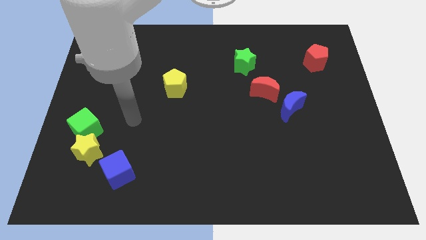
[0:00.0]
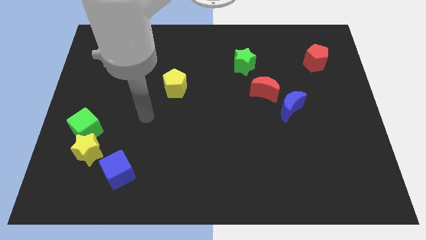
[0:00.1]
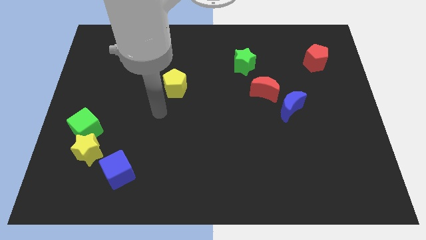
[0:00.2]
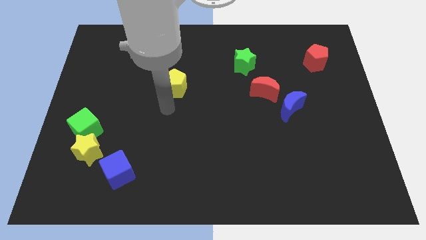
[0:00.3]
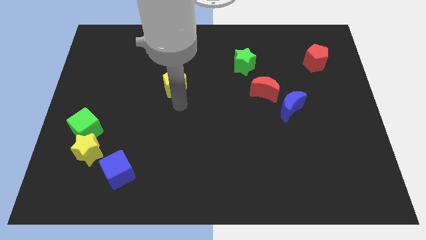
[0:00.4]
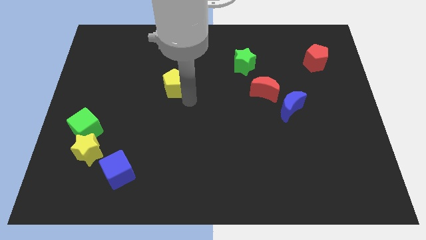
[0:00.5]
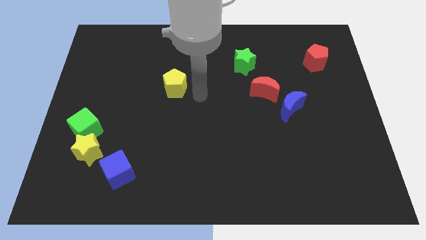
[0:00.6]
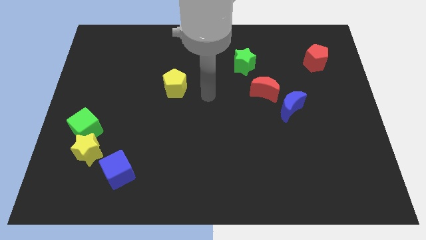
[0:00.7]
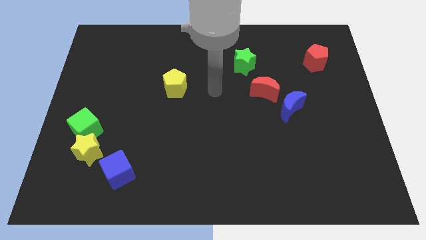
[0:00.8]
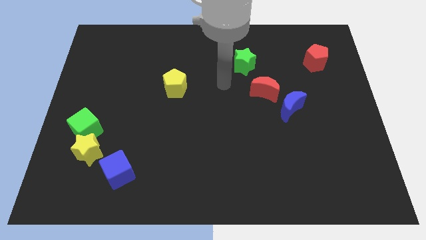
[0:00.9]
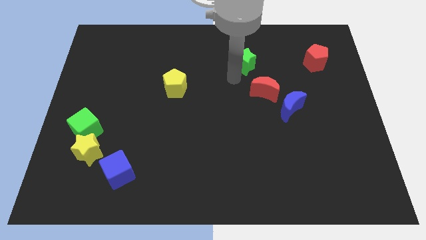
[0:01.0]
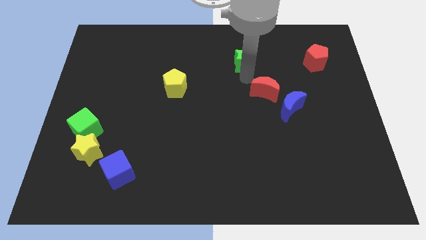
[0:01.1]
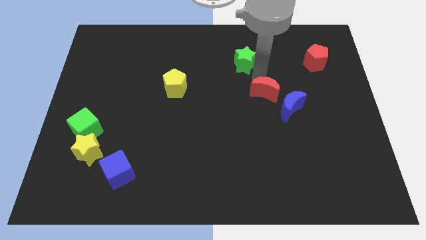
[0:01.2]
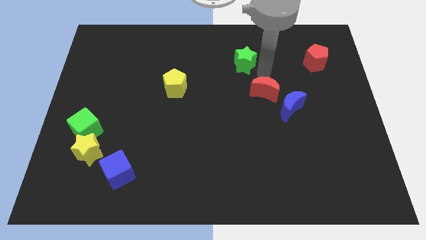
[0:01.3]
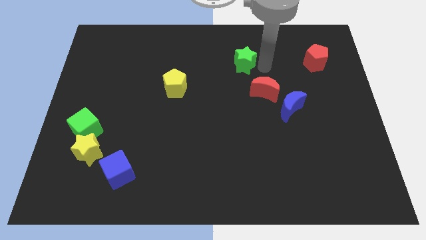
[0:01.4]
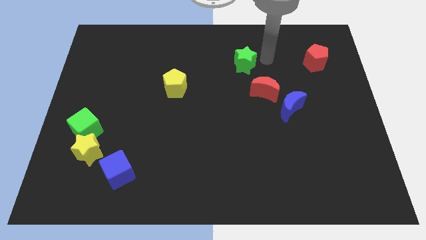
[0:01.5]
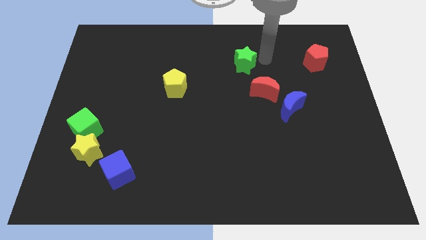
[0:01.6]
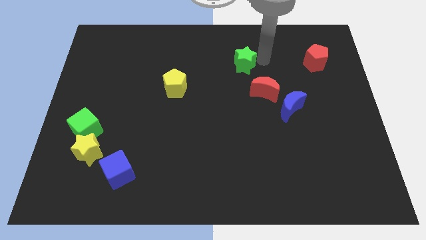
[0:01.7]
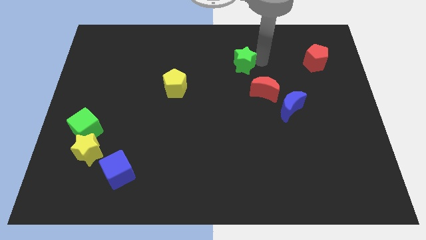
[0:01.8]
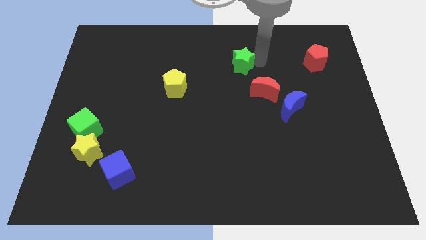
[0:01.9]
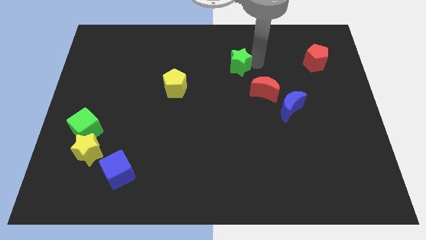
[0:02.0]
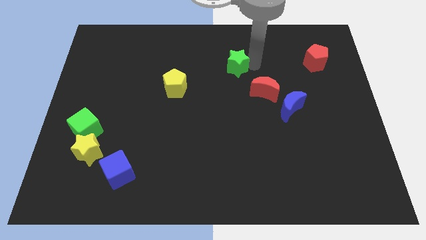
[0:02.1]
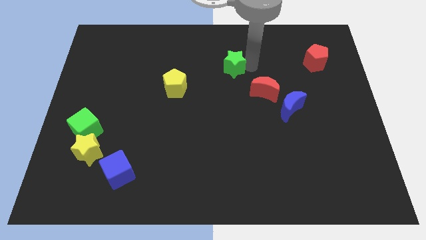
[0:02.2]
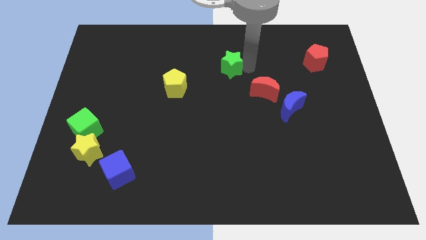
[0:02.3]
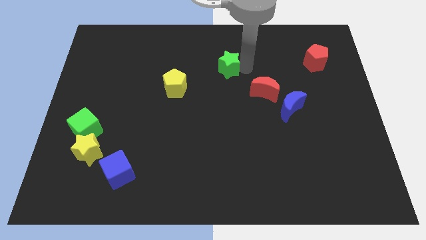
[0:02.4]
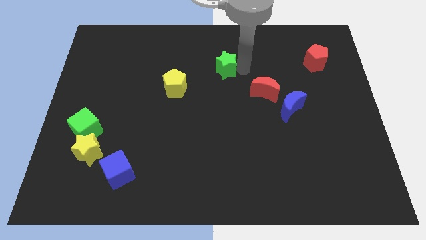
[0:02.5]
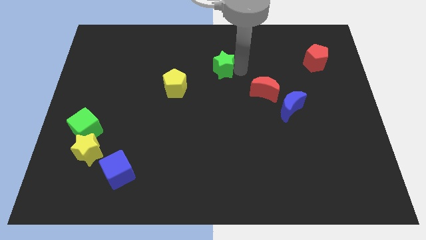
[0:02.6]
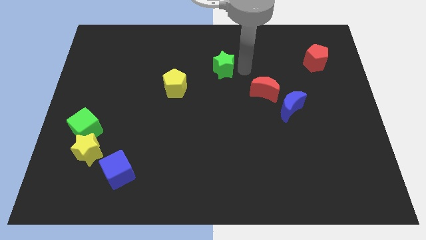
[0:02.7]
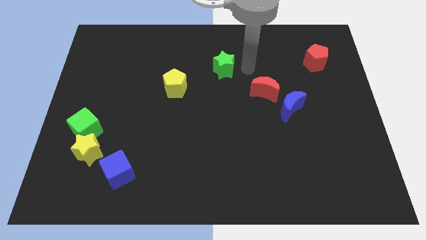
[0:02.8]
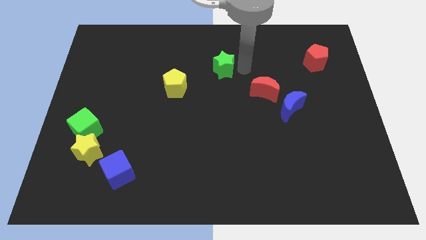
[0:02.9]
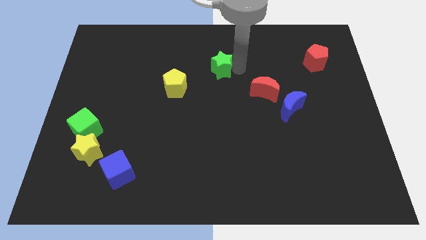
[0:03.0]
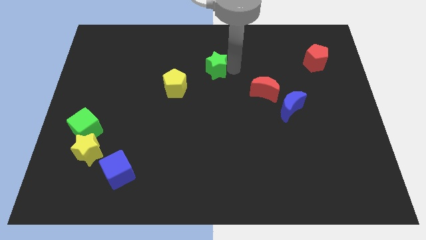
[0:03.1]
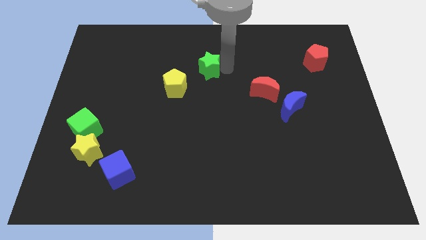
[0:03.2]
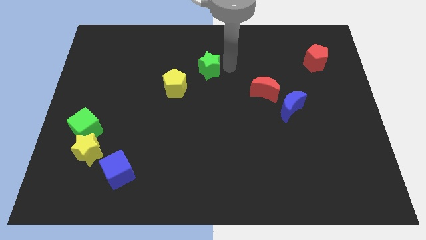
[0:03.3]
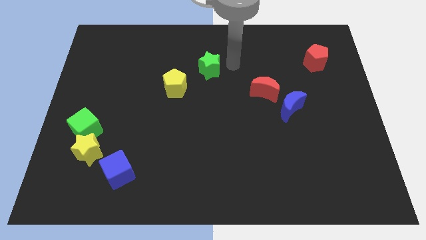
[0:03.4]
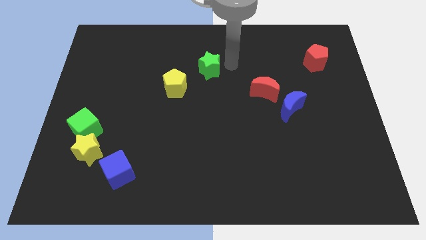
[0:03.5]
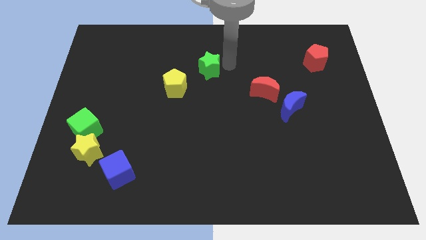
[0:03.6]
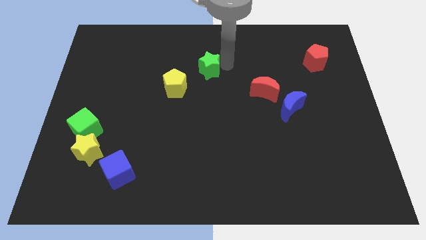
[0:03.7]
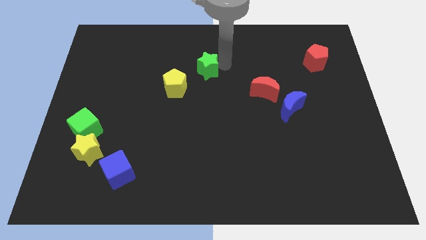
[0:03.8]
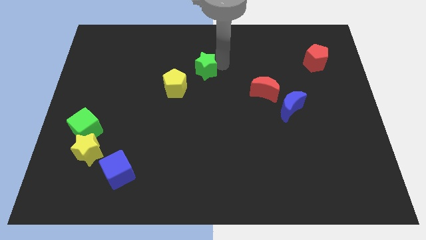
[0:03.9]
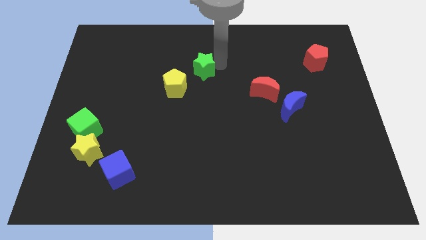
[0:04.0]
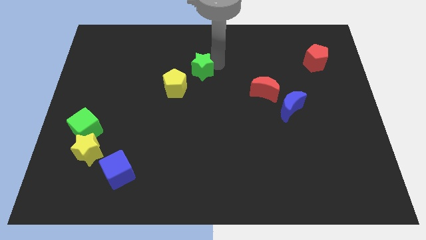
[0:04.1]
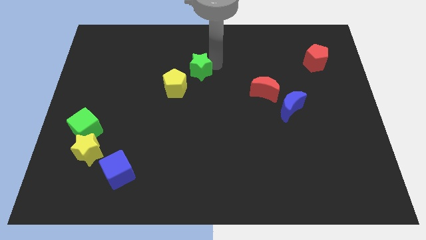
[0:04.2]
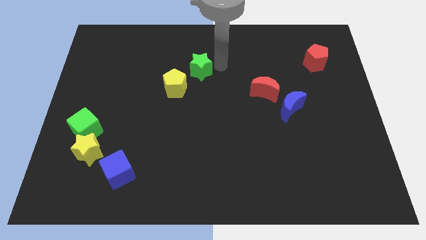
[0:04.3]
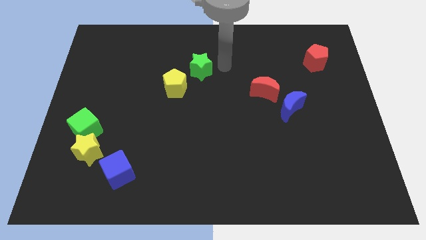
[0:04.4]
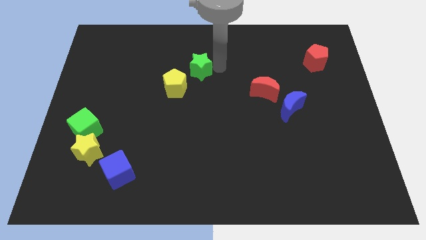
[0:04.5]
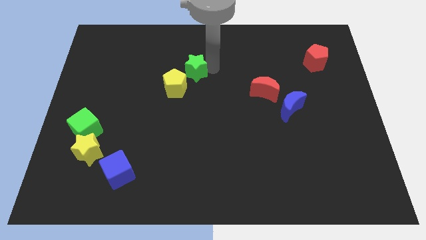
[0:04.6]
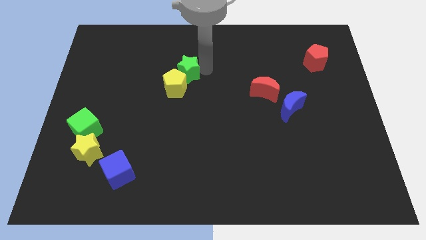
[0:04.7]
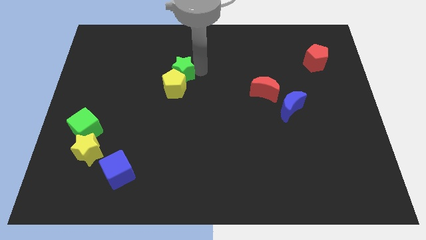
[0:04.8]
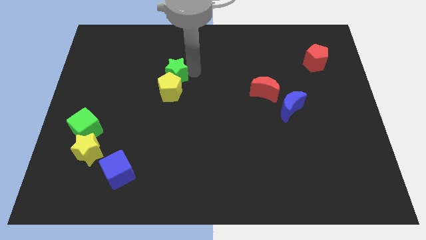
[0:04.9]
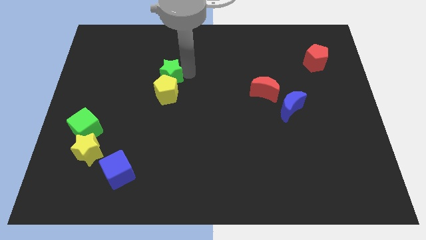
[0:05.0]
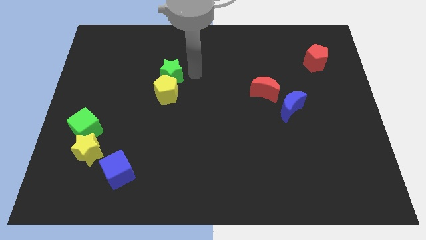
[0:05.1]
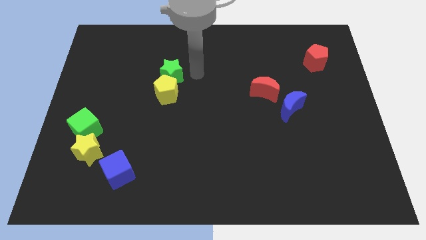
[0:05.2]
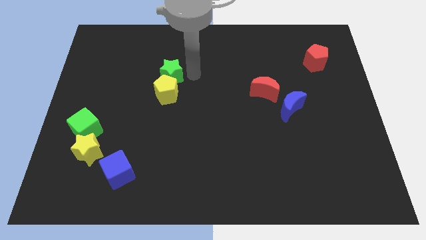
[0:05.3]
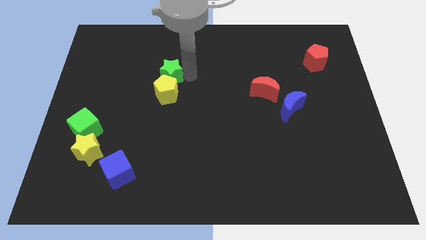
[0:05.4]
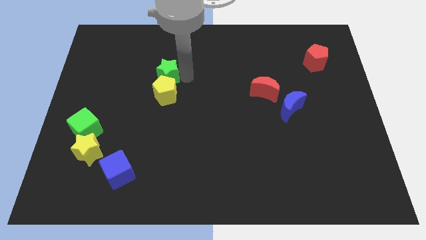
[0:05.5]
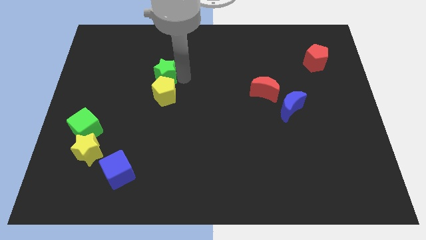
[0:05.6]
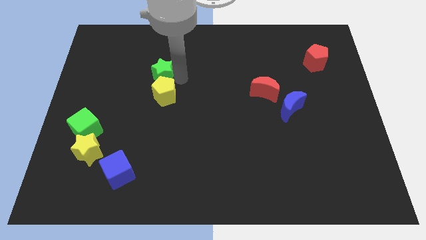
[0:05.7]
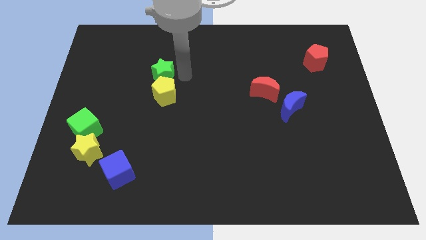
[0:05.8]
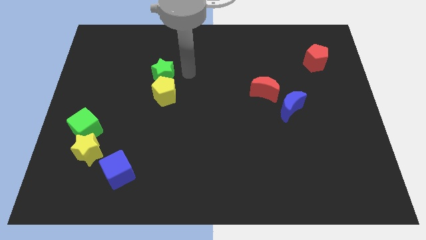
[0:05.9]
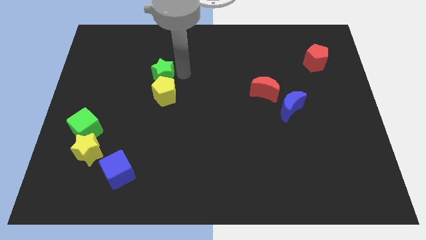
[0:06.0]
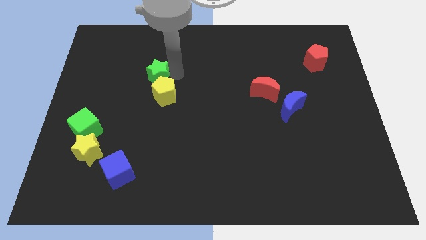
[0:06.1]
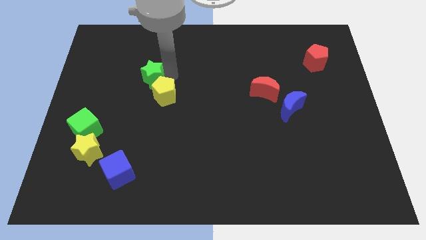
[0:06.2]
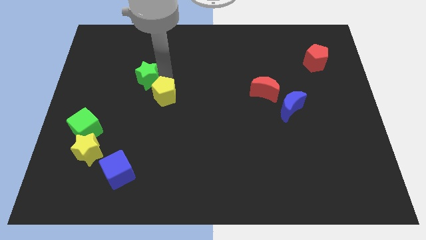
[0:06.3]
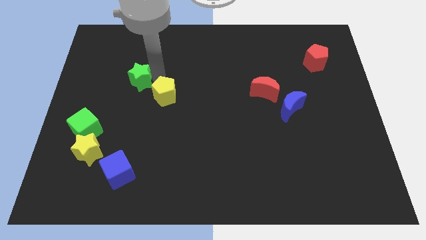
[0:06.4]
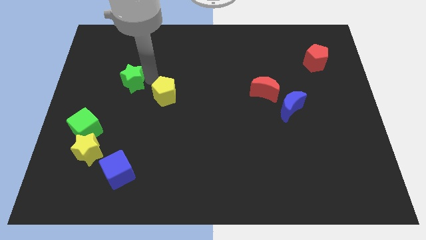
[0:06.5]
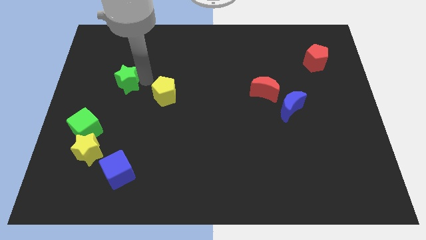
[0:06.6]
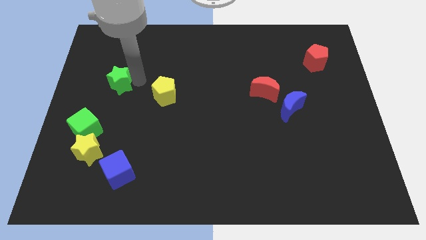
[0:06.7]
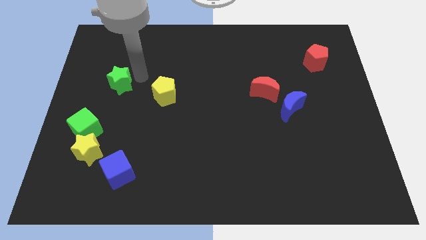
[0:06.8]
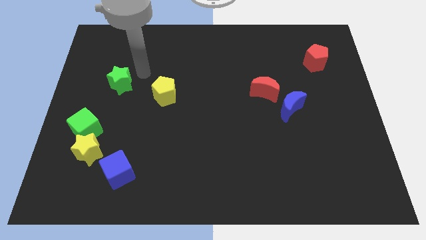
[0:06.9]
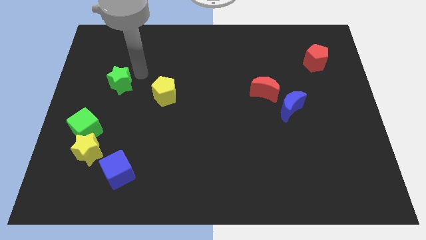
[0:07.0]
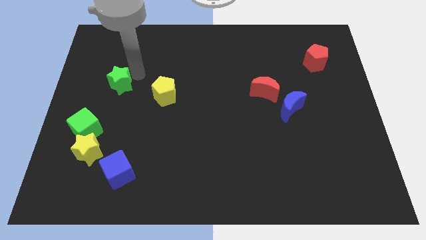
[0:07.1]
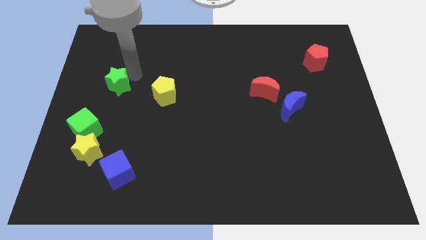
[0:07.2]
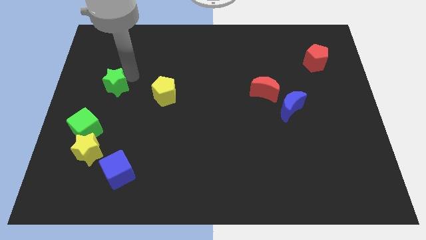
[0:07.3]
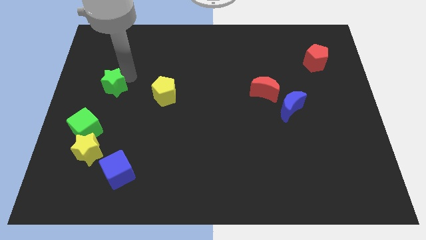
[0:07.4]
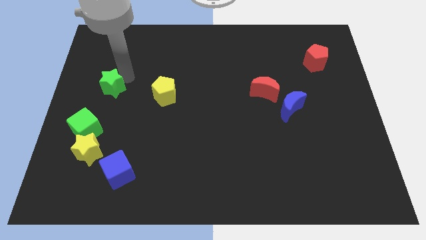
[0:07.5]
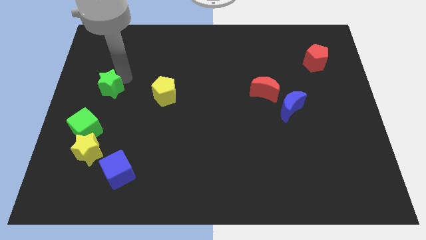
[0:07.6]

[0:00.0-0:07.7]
put the green star to the left side of the board

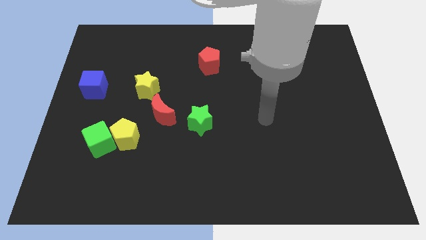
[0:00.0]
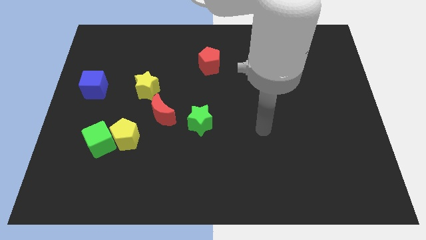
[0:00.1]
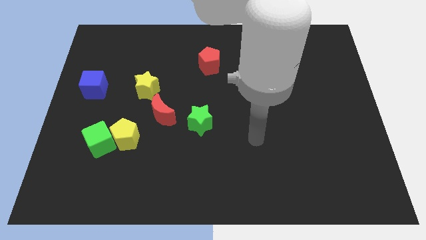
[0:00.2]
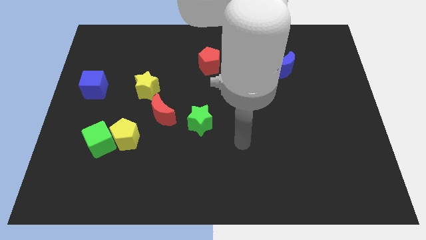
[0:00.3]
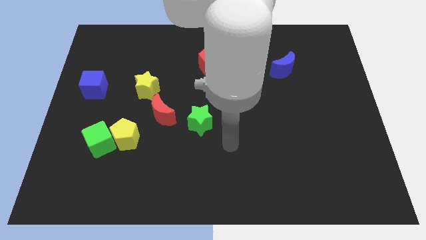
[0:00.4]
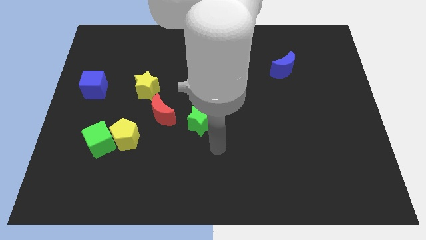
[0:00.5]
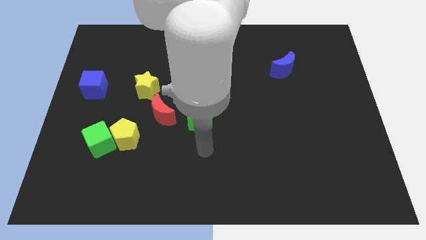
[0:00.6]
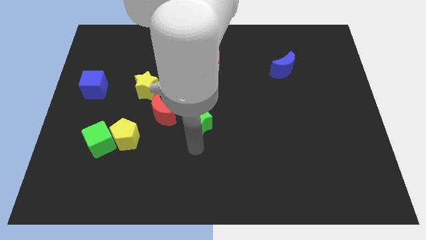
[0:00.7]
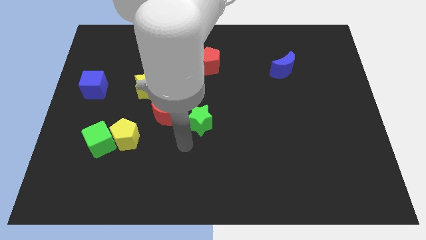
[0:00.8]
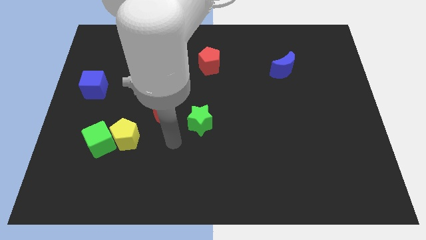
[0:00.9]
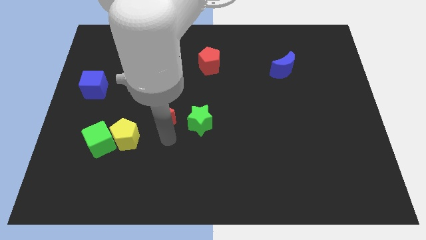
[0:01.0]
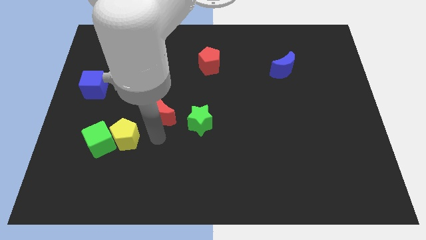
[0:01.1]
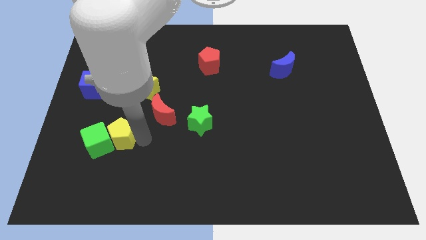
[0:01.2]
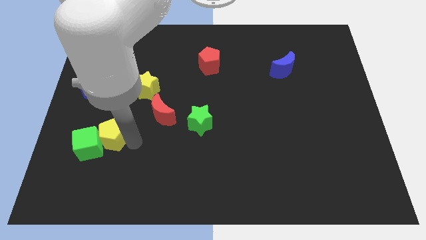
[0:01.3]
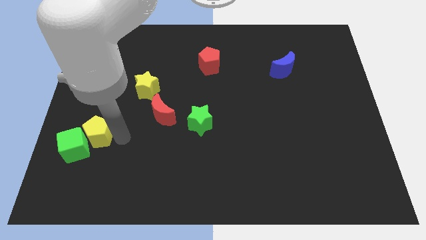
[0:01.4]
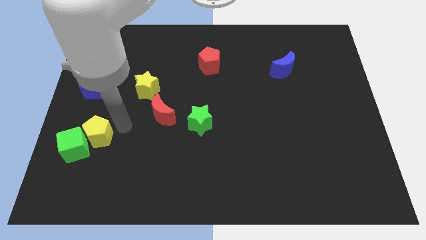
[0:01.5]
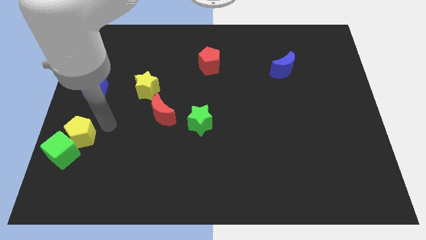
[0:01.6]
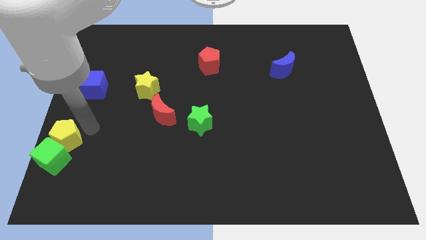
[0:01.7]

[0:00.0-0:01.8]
push the green cube to the bottom left of the board
